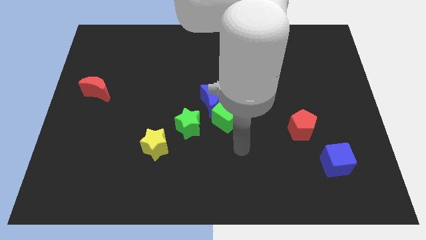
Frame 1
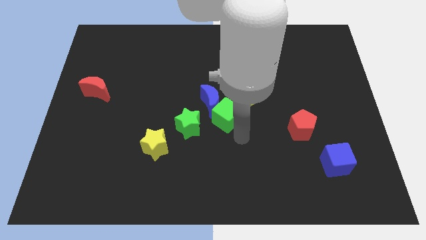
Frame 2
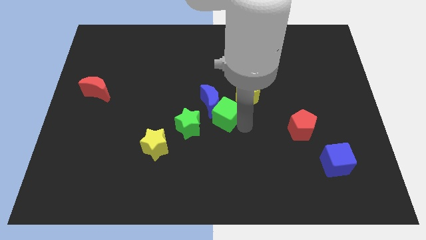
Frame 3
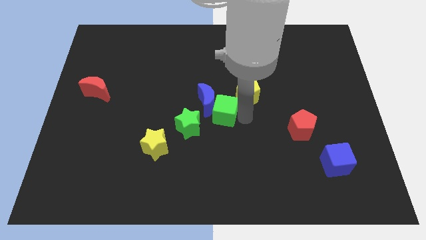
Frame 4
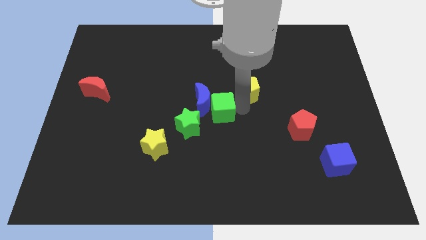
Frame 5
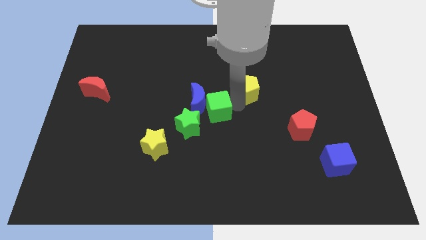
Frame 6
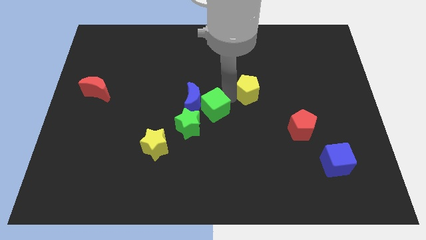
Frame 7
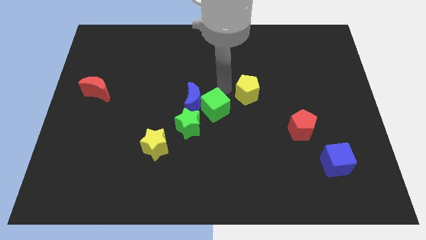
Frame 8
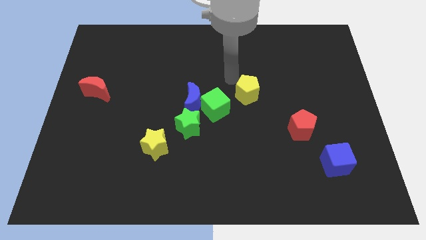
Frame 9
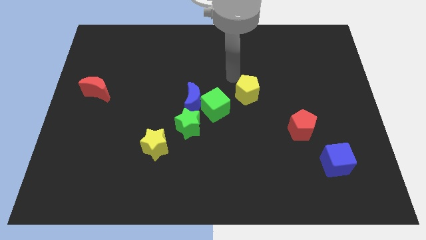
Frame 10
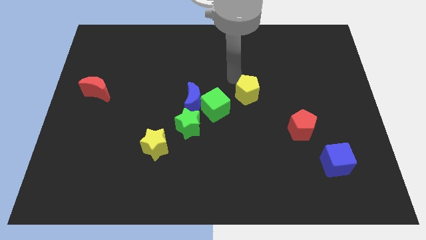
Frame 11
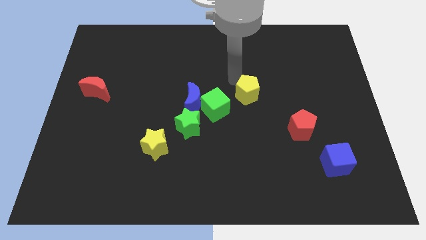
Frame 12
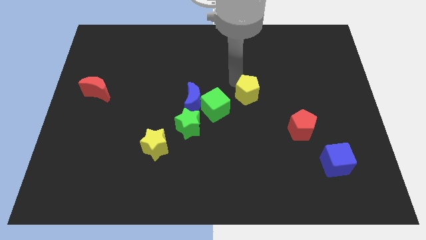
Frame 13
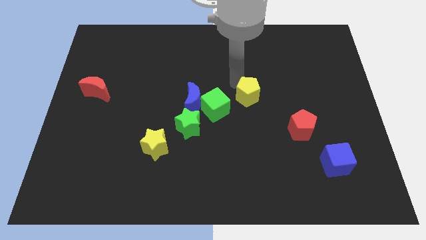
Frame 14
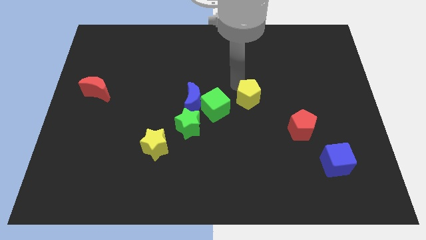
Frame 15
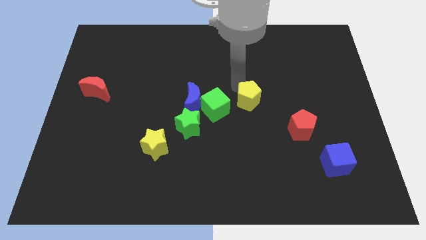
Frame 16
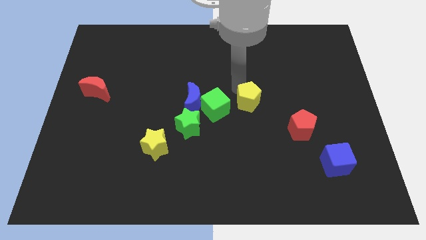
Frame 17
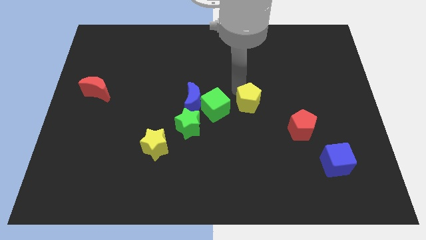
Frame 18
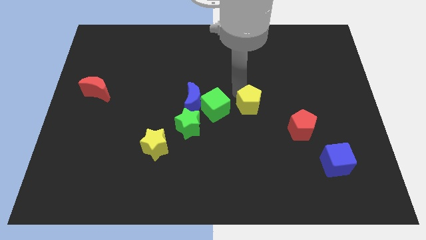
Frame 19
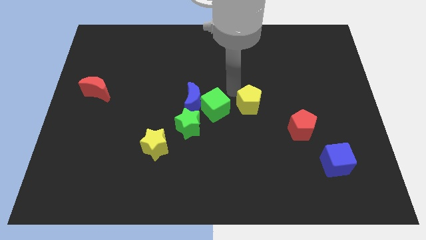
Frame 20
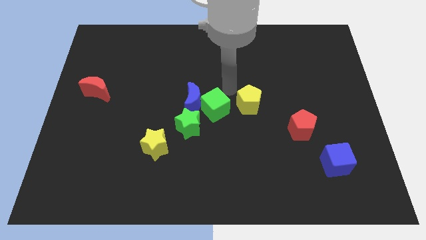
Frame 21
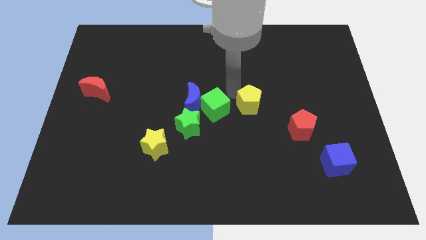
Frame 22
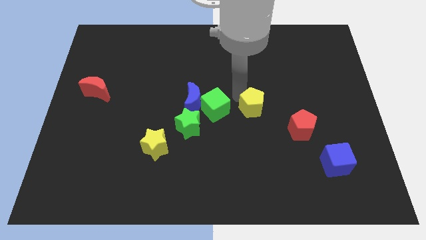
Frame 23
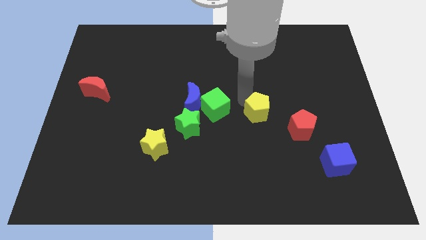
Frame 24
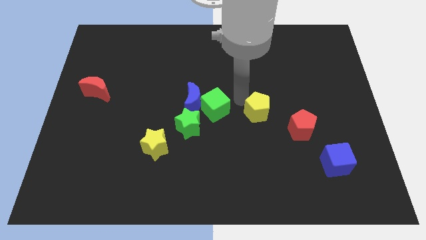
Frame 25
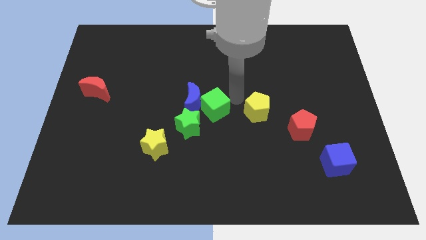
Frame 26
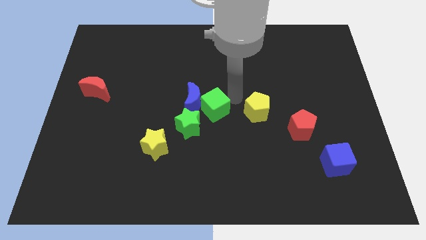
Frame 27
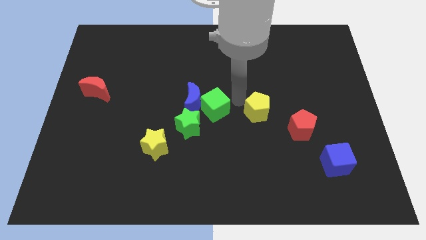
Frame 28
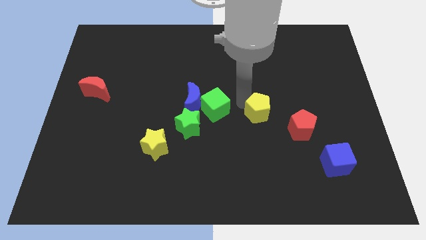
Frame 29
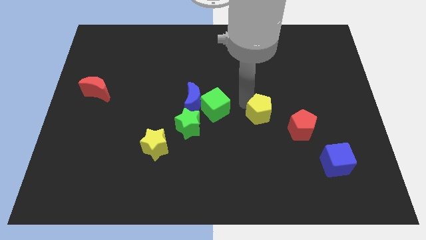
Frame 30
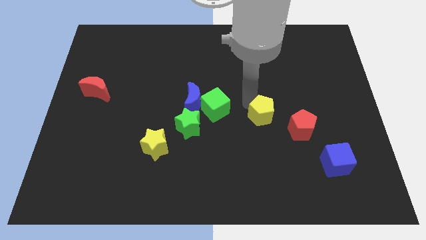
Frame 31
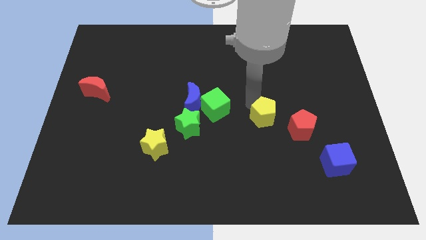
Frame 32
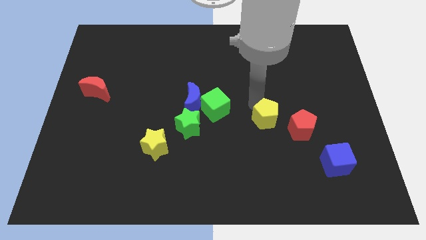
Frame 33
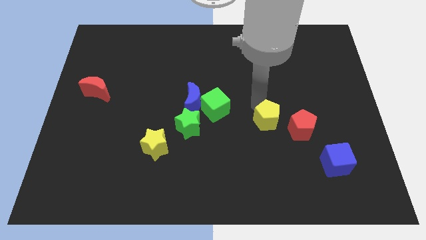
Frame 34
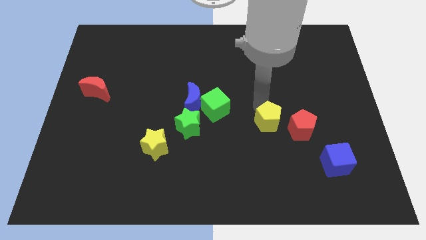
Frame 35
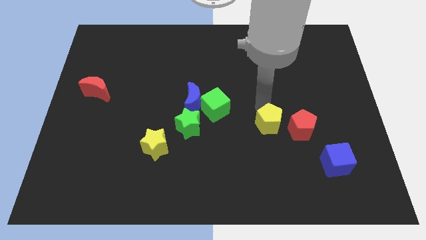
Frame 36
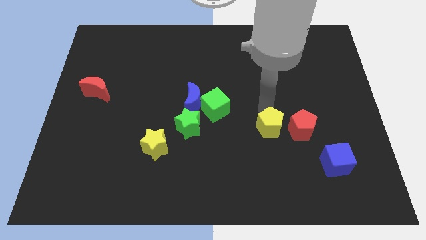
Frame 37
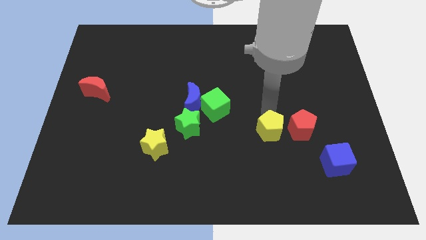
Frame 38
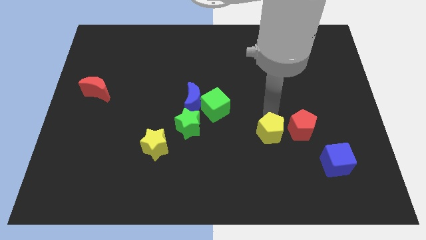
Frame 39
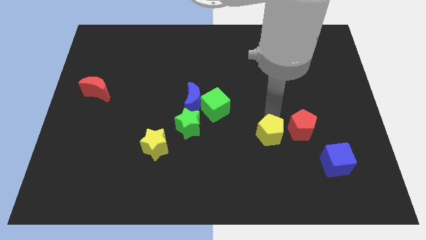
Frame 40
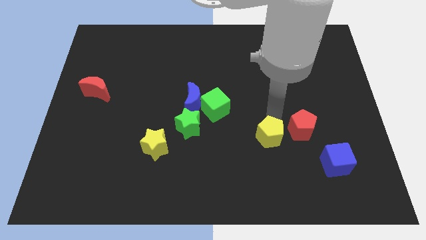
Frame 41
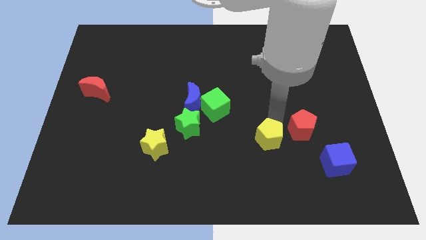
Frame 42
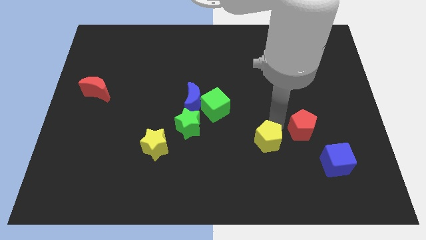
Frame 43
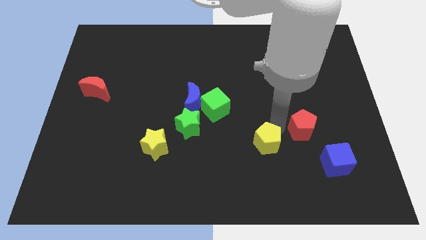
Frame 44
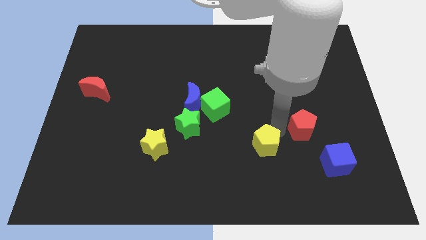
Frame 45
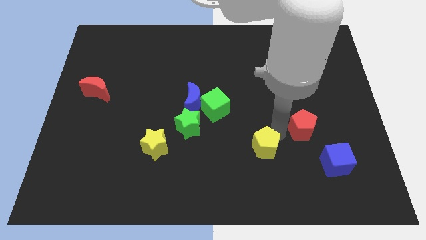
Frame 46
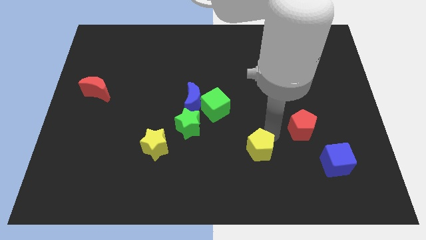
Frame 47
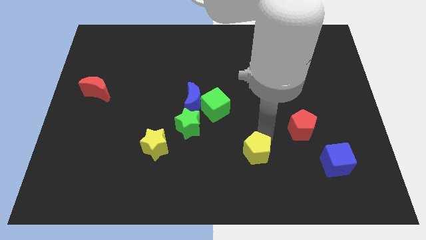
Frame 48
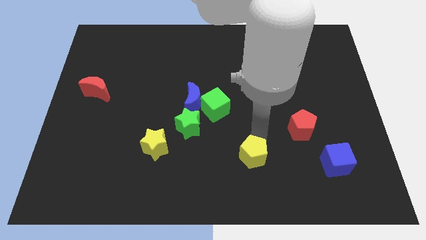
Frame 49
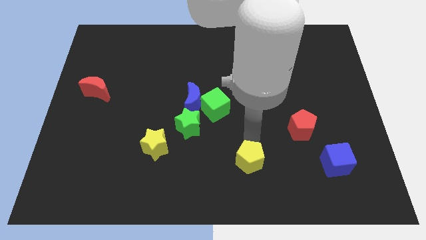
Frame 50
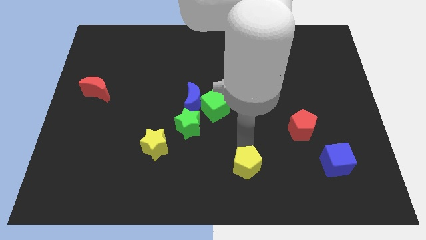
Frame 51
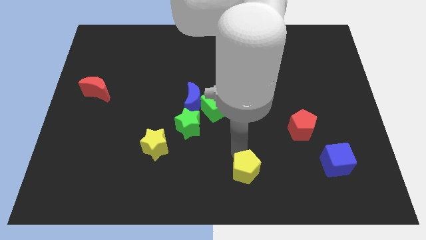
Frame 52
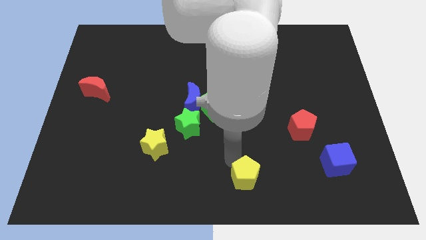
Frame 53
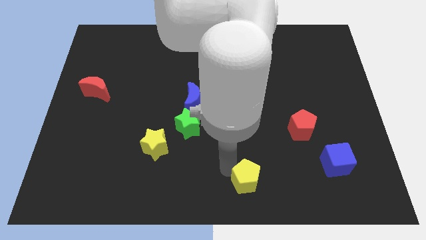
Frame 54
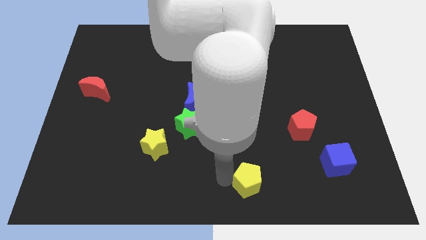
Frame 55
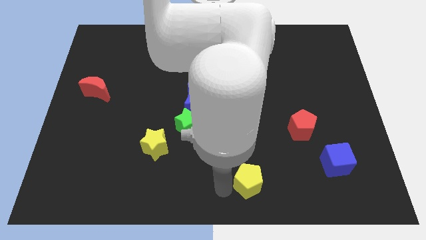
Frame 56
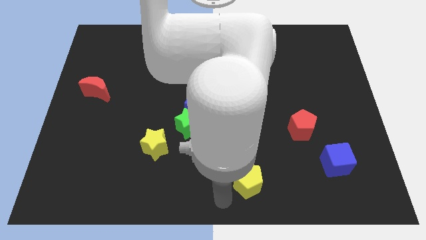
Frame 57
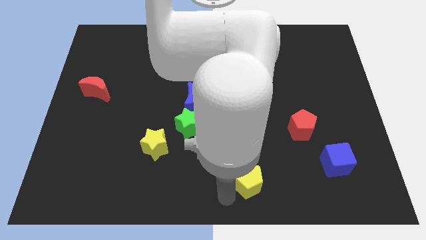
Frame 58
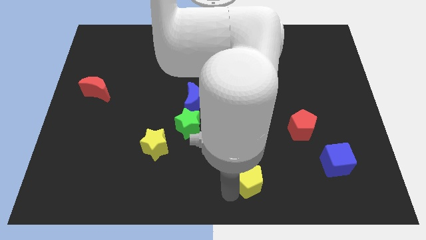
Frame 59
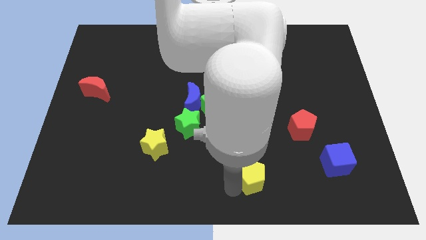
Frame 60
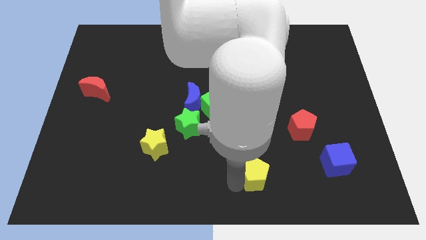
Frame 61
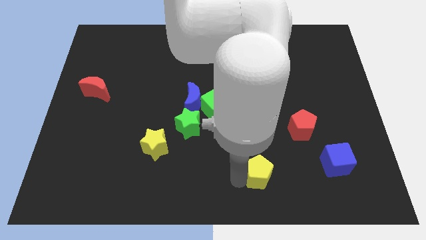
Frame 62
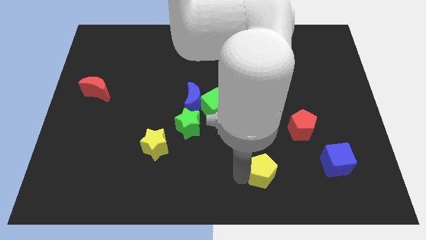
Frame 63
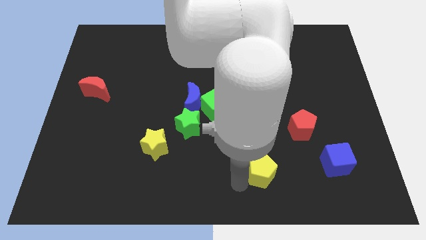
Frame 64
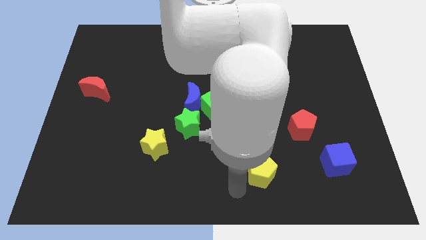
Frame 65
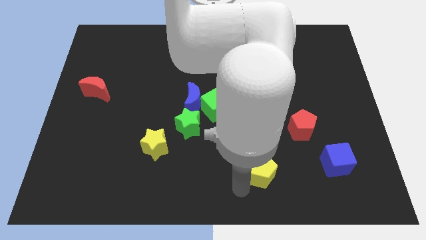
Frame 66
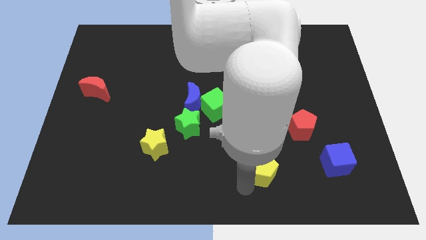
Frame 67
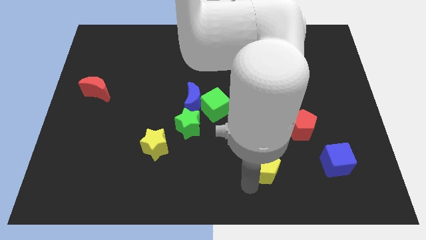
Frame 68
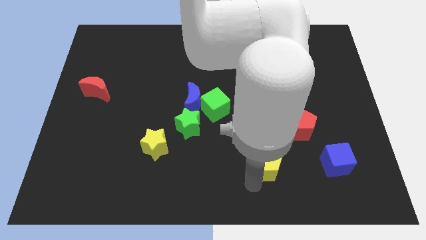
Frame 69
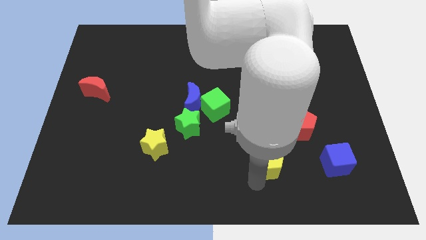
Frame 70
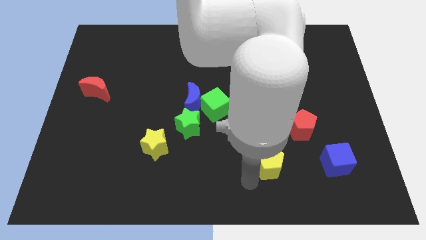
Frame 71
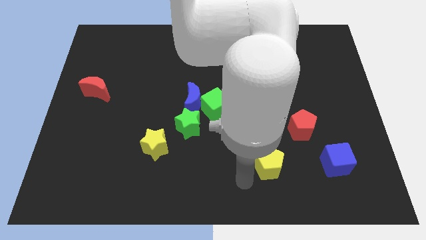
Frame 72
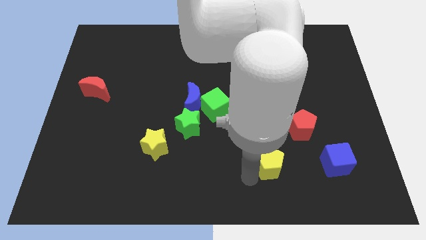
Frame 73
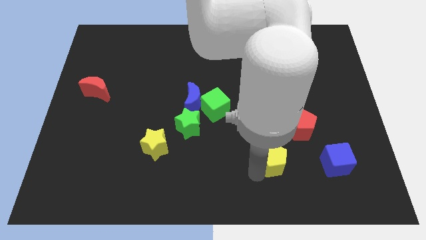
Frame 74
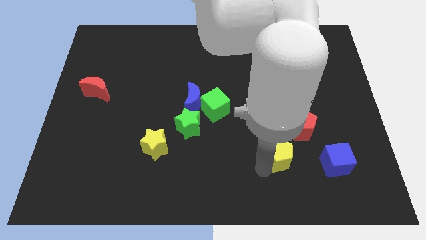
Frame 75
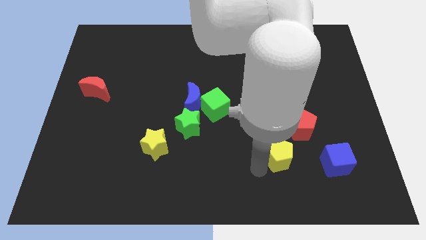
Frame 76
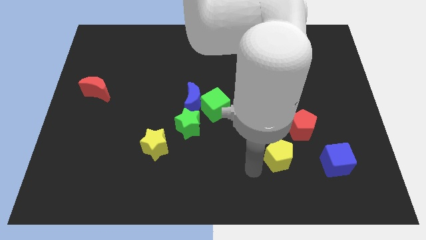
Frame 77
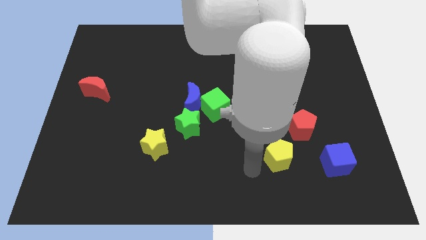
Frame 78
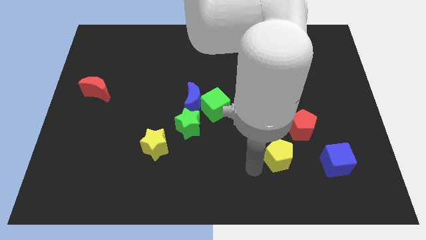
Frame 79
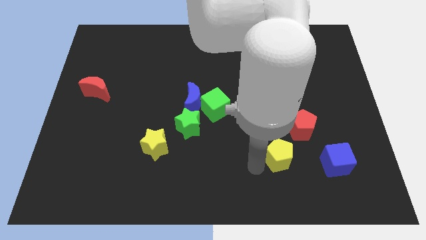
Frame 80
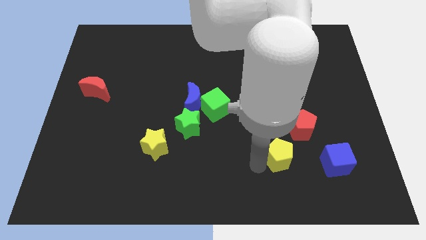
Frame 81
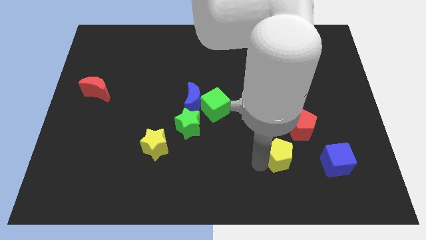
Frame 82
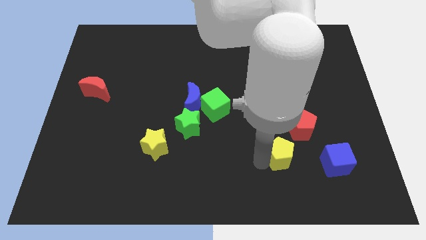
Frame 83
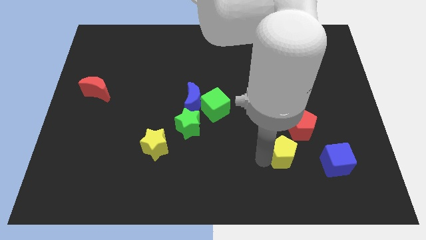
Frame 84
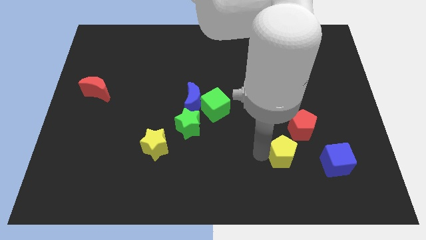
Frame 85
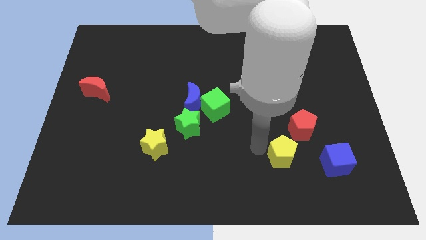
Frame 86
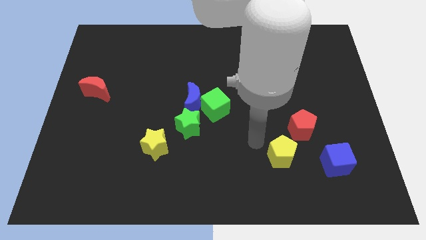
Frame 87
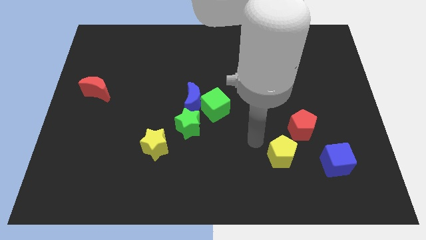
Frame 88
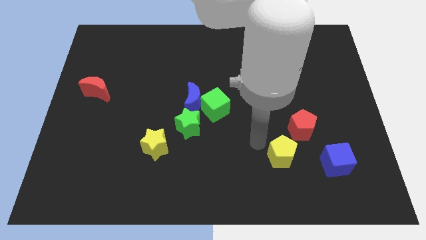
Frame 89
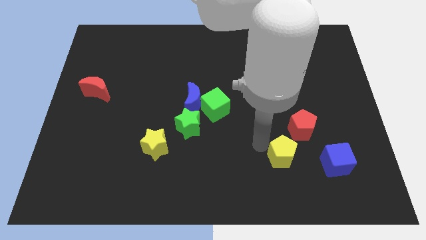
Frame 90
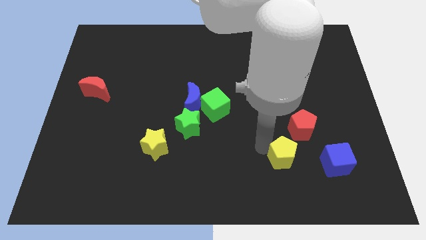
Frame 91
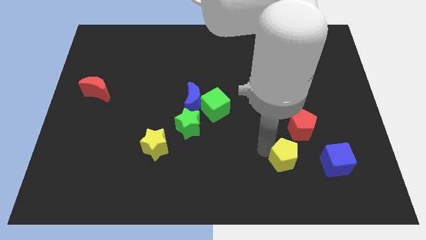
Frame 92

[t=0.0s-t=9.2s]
push the yellow pentagon below the red pentagon
